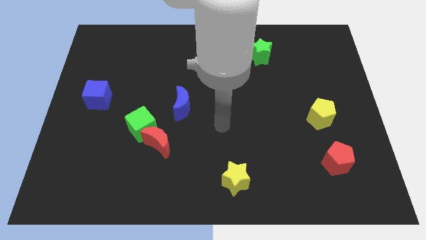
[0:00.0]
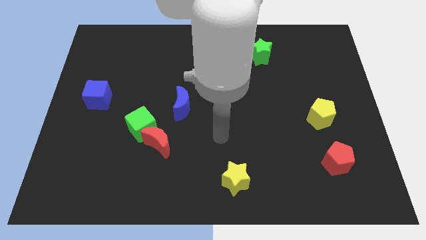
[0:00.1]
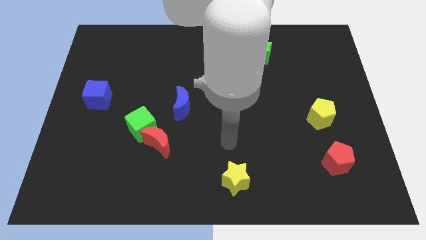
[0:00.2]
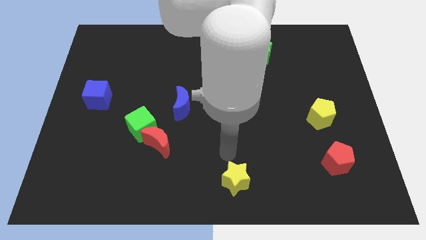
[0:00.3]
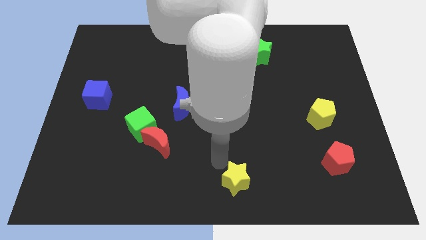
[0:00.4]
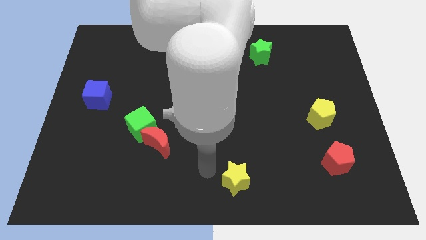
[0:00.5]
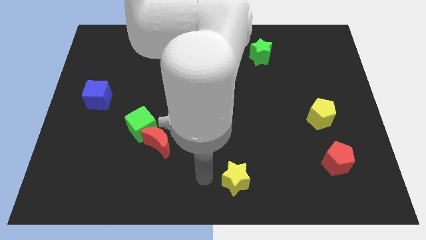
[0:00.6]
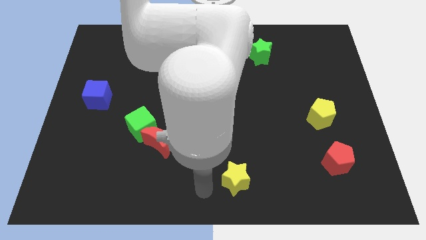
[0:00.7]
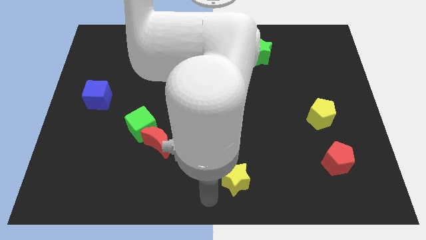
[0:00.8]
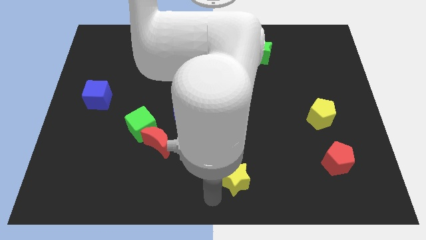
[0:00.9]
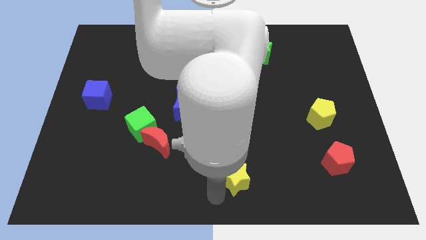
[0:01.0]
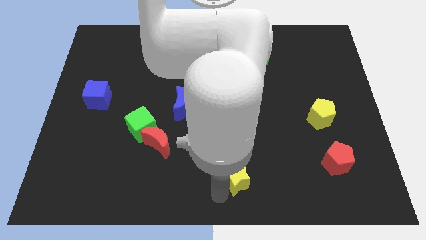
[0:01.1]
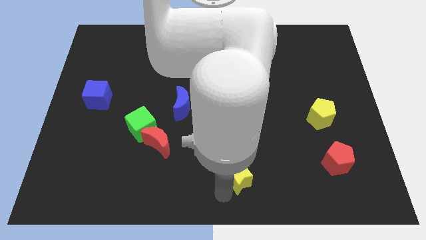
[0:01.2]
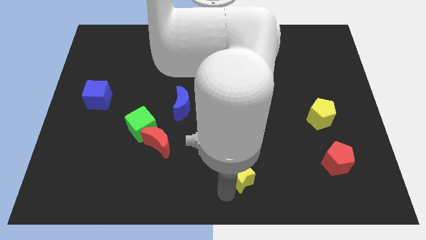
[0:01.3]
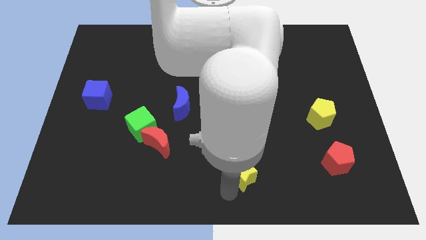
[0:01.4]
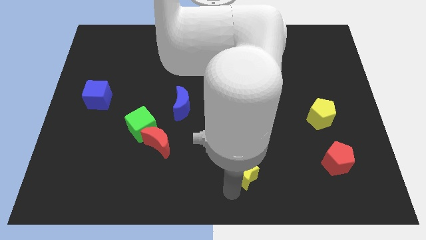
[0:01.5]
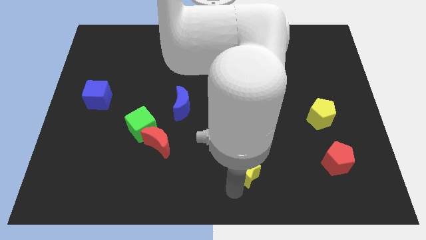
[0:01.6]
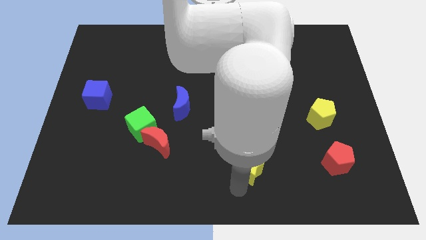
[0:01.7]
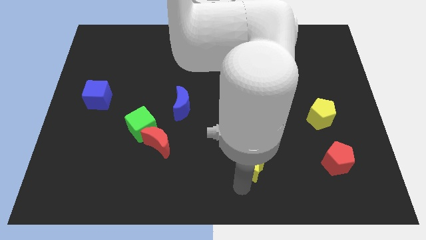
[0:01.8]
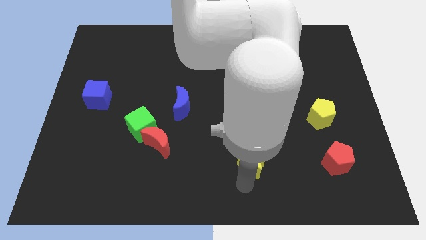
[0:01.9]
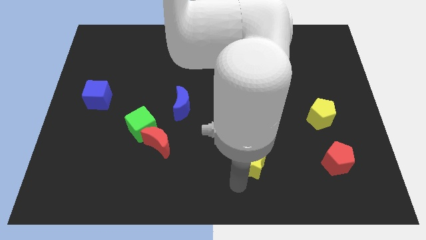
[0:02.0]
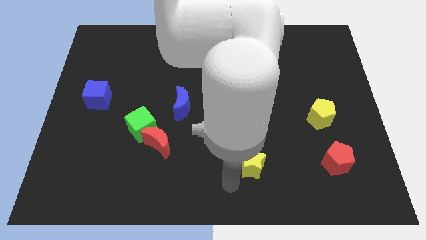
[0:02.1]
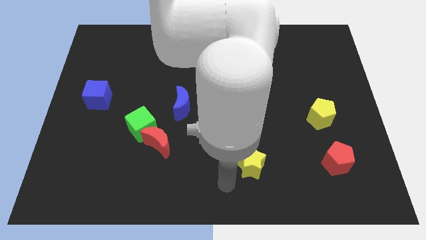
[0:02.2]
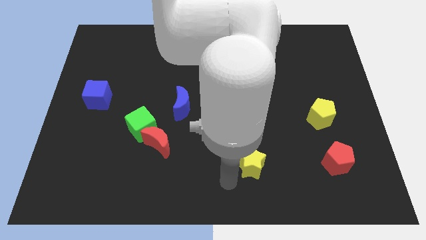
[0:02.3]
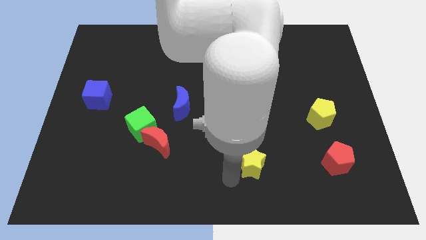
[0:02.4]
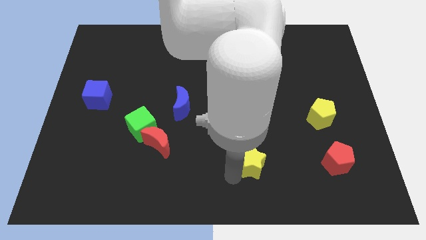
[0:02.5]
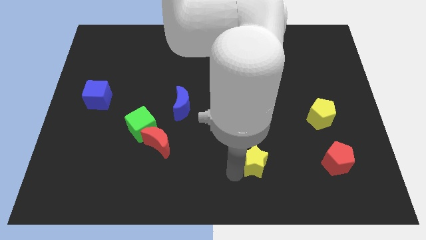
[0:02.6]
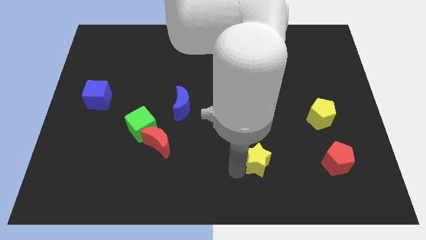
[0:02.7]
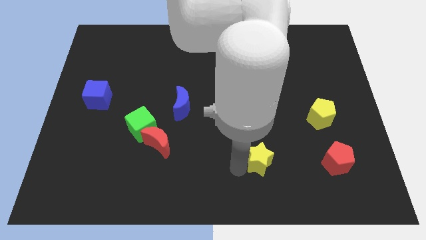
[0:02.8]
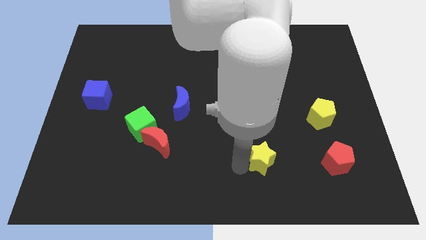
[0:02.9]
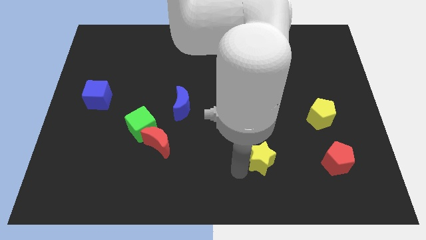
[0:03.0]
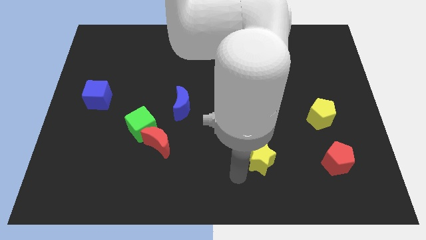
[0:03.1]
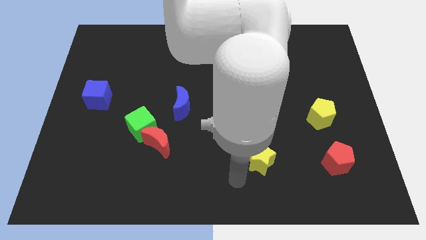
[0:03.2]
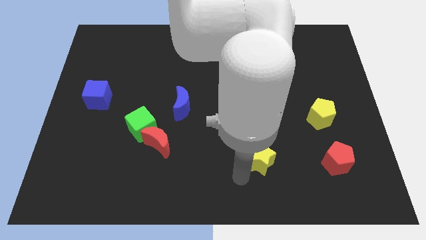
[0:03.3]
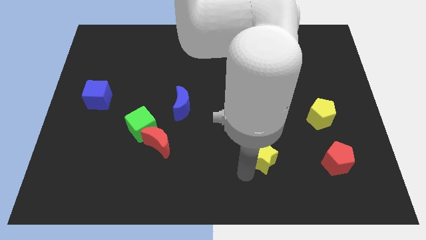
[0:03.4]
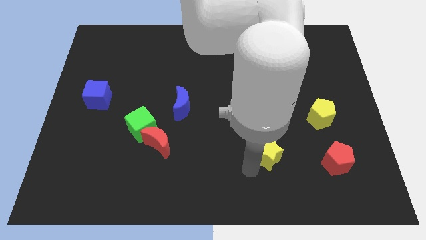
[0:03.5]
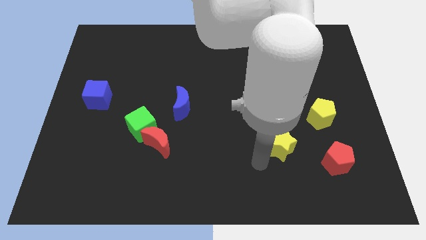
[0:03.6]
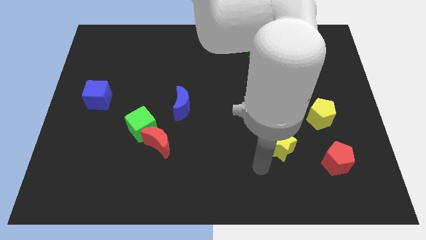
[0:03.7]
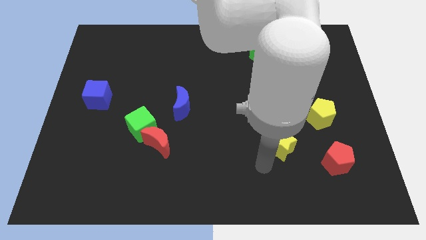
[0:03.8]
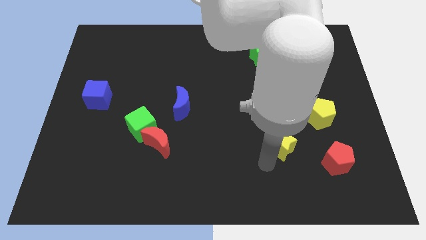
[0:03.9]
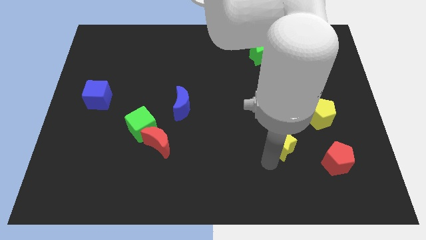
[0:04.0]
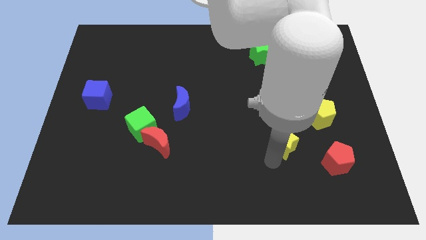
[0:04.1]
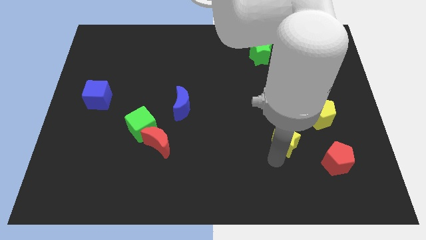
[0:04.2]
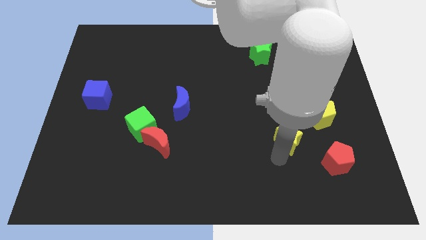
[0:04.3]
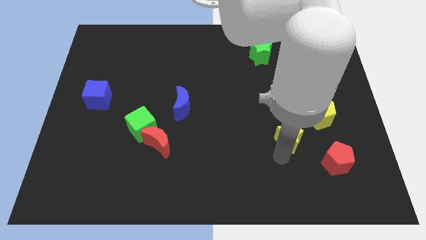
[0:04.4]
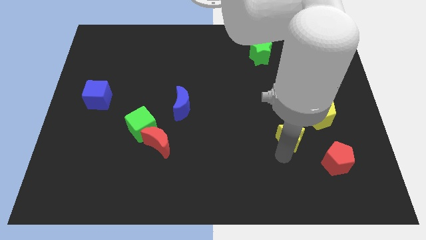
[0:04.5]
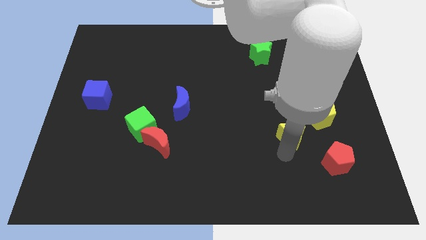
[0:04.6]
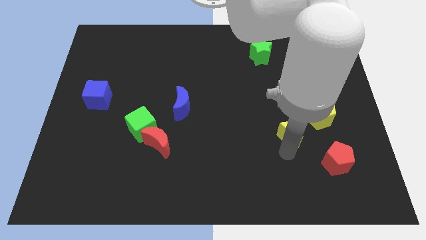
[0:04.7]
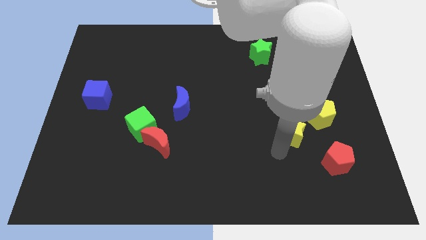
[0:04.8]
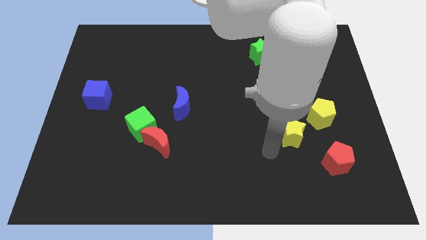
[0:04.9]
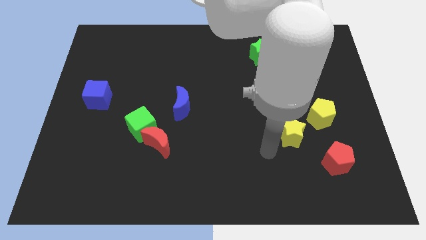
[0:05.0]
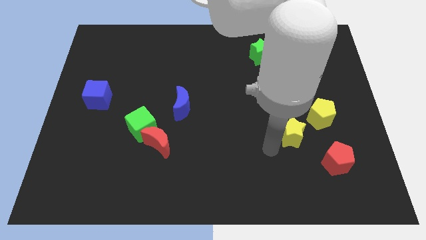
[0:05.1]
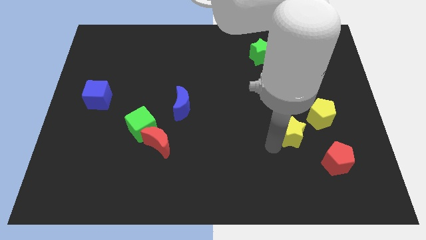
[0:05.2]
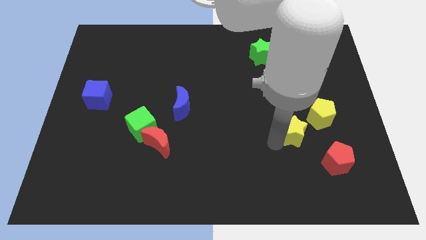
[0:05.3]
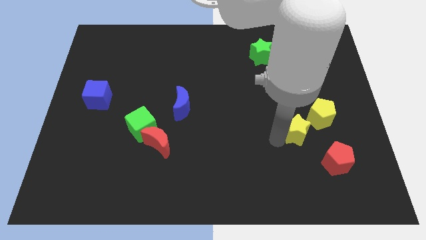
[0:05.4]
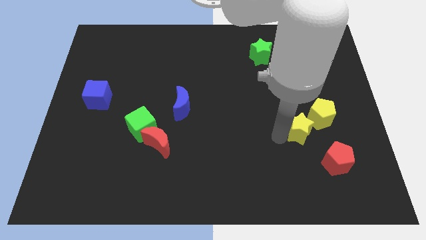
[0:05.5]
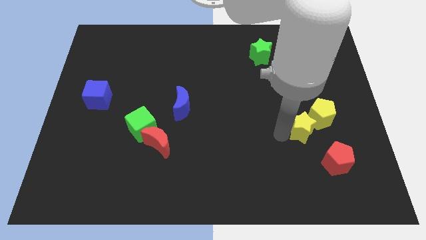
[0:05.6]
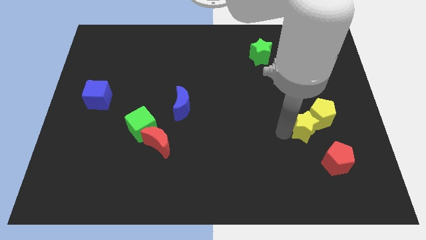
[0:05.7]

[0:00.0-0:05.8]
push the yellow star next to the yellow pentagon

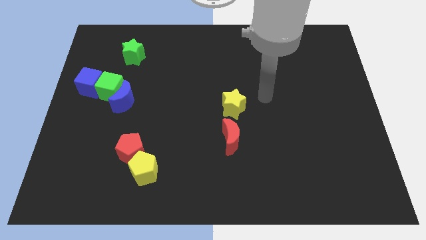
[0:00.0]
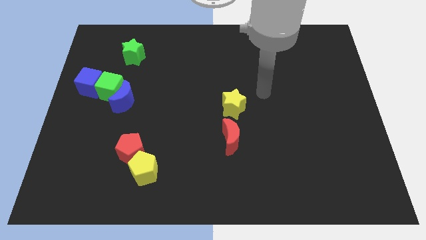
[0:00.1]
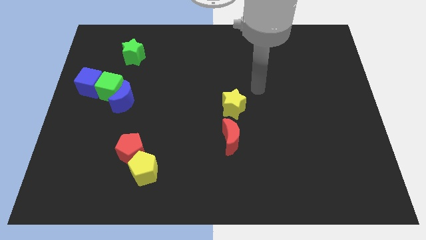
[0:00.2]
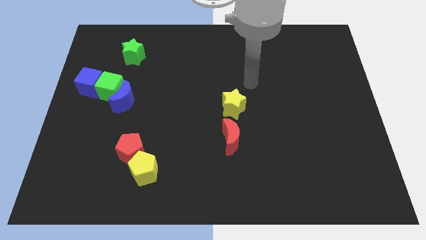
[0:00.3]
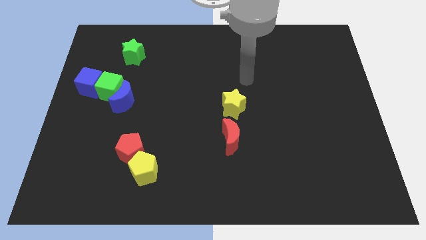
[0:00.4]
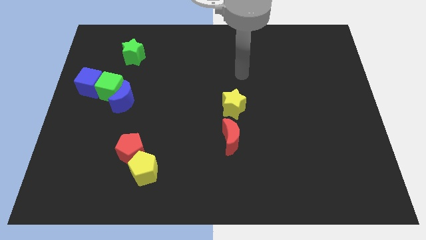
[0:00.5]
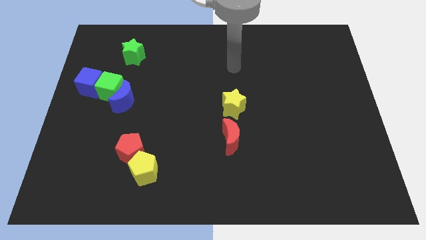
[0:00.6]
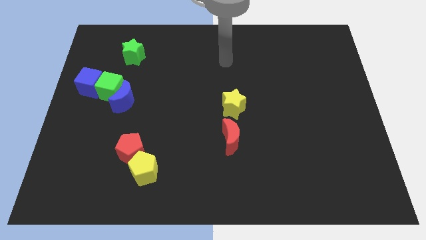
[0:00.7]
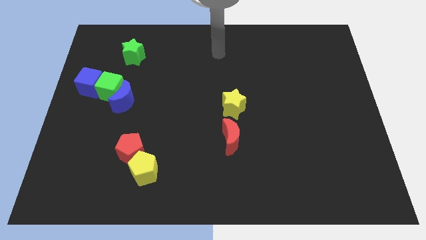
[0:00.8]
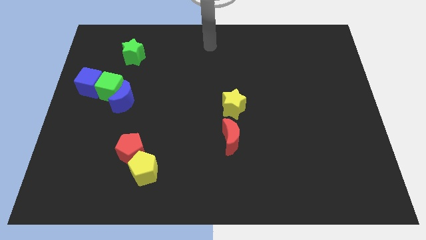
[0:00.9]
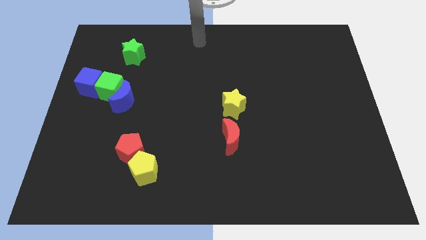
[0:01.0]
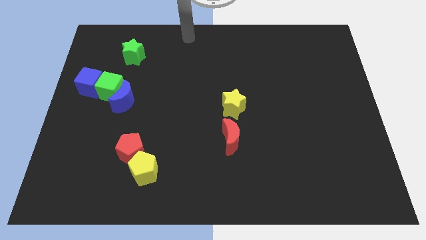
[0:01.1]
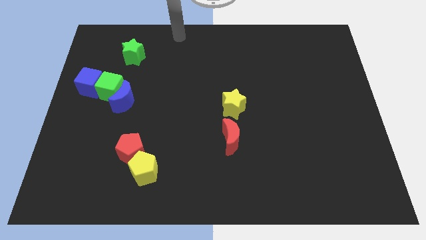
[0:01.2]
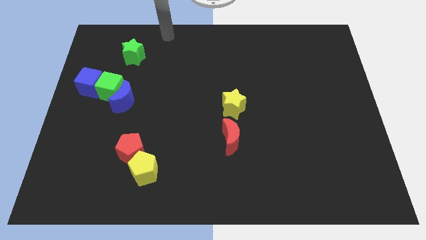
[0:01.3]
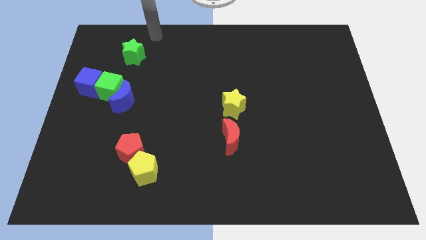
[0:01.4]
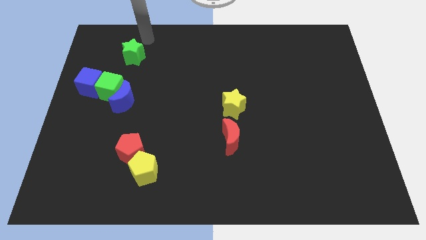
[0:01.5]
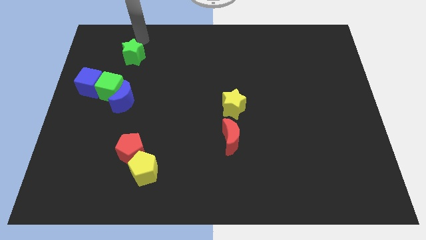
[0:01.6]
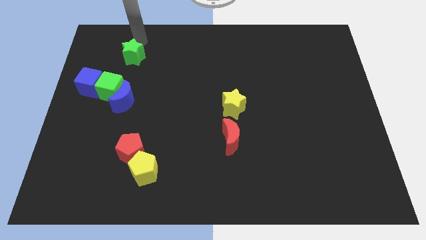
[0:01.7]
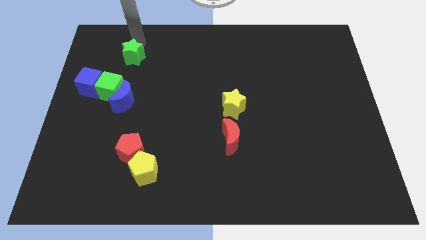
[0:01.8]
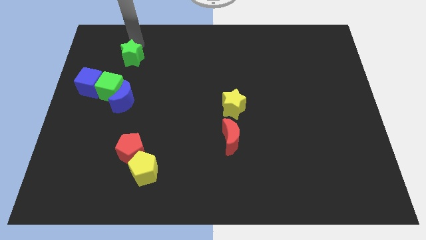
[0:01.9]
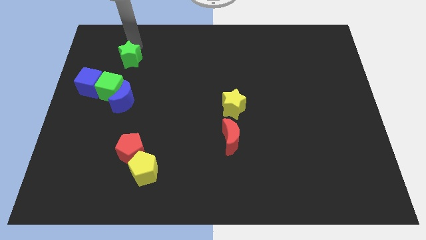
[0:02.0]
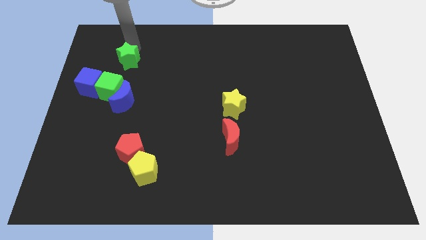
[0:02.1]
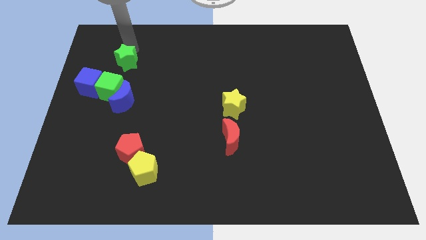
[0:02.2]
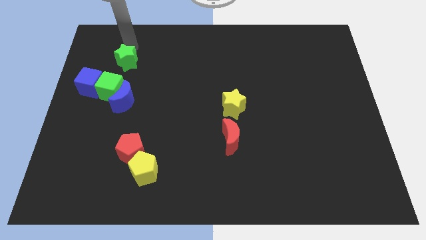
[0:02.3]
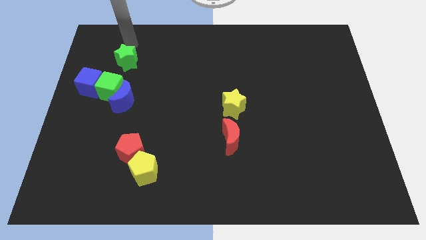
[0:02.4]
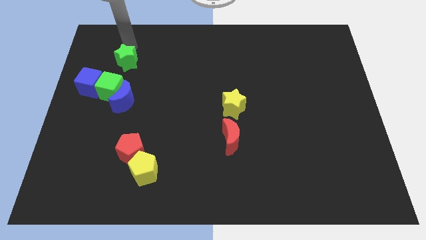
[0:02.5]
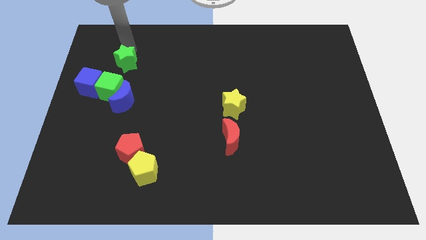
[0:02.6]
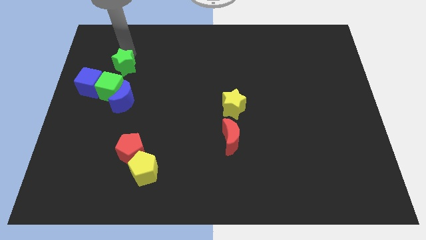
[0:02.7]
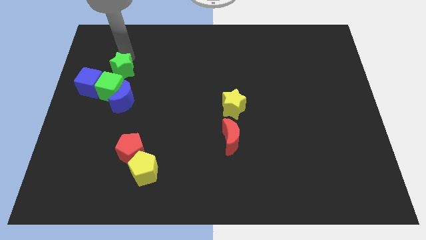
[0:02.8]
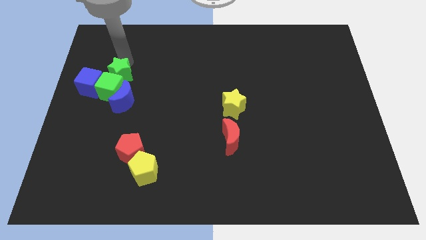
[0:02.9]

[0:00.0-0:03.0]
slide the green star to the green cube
